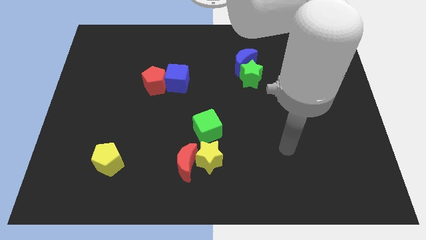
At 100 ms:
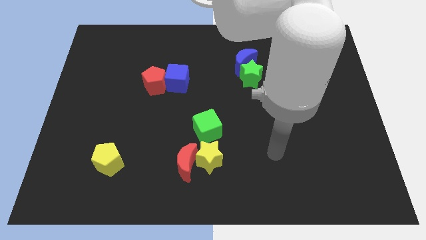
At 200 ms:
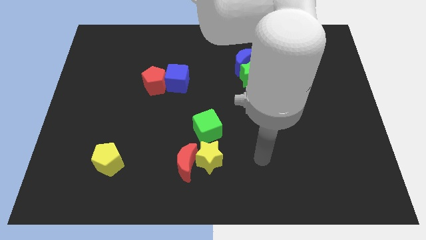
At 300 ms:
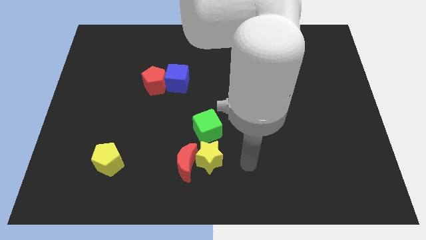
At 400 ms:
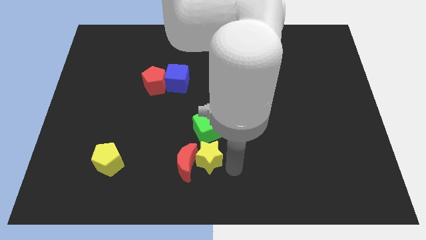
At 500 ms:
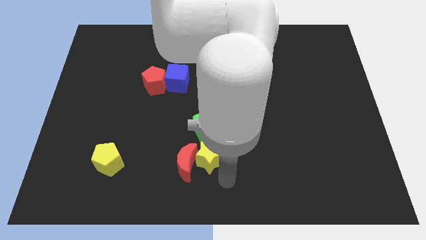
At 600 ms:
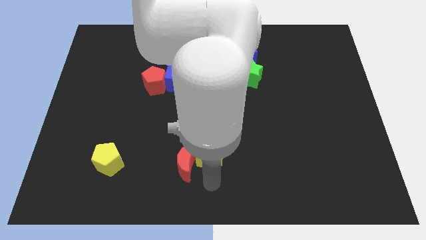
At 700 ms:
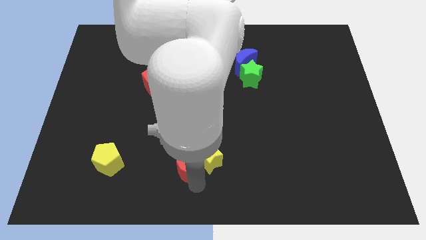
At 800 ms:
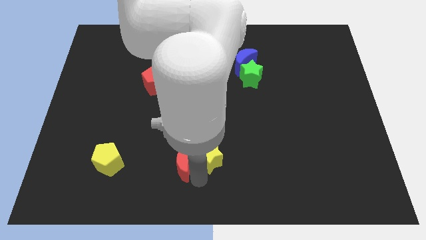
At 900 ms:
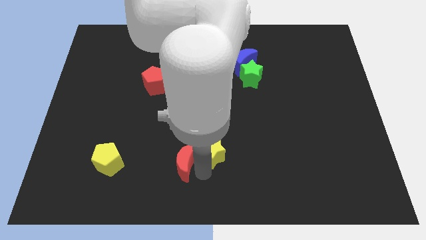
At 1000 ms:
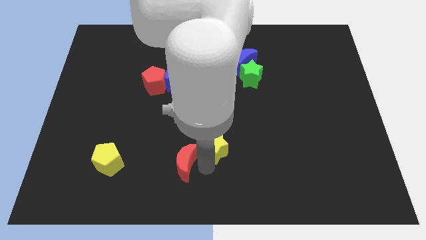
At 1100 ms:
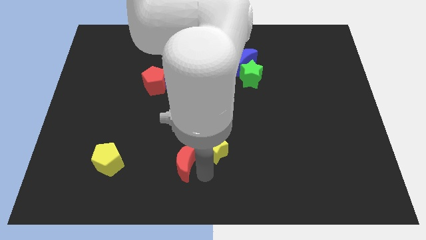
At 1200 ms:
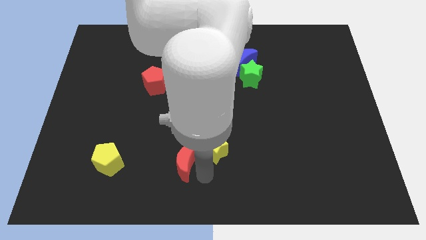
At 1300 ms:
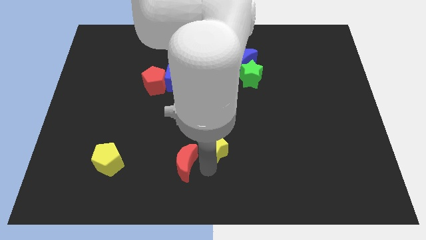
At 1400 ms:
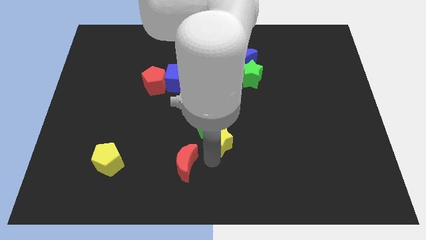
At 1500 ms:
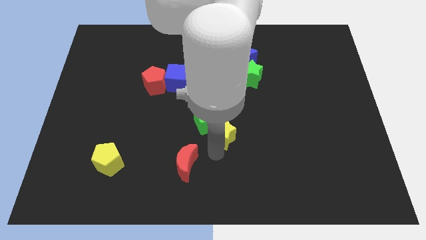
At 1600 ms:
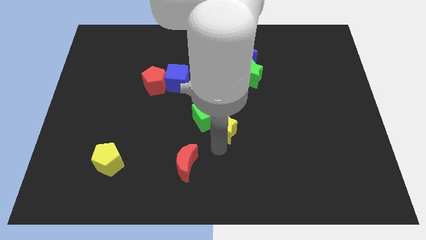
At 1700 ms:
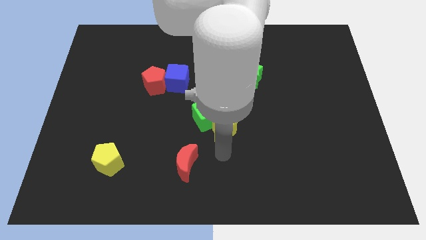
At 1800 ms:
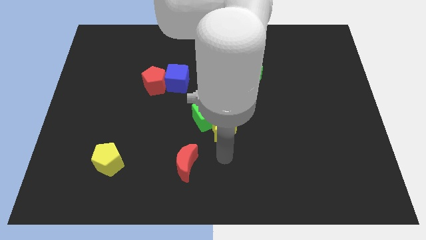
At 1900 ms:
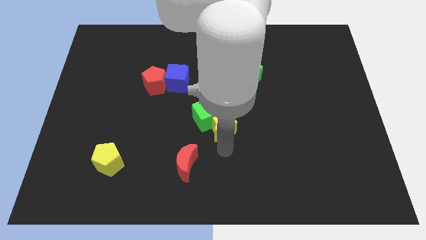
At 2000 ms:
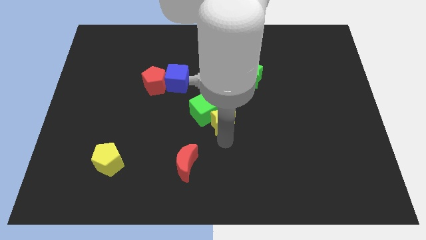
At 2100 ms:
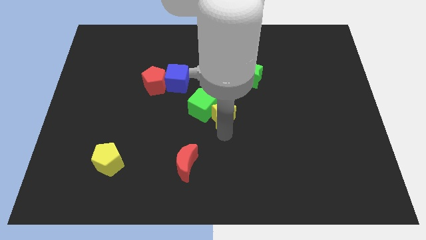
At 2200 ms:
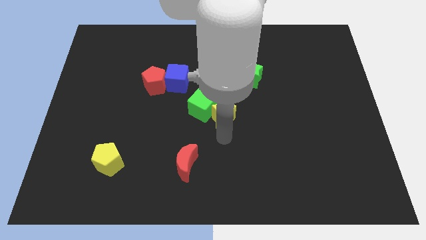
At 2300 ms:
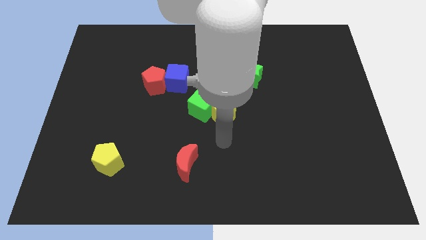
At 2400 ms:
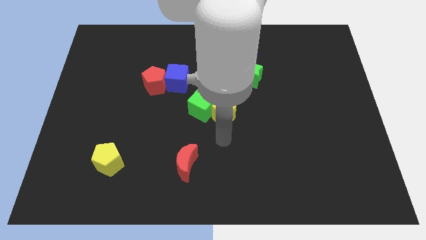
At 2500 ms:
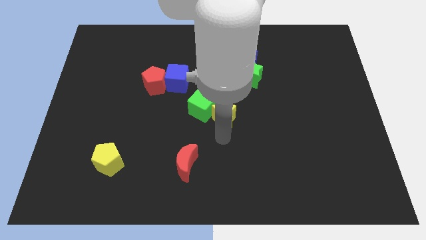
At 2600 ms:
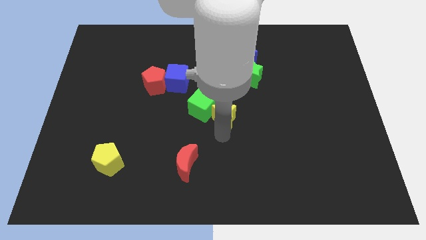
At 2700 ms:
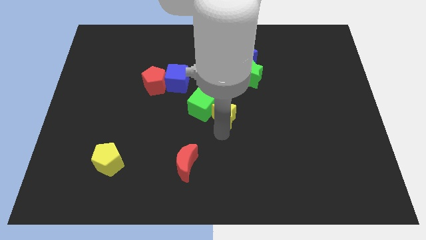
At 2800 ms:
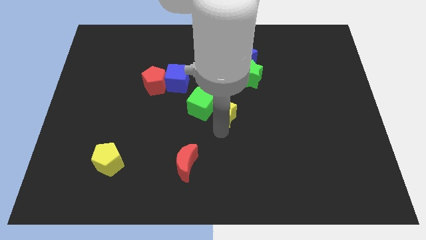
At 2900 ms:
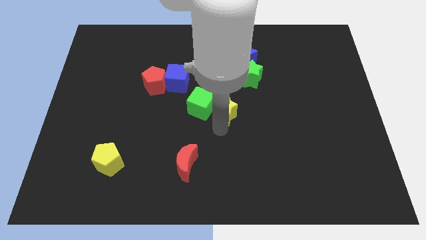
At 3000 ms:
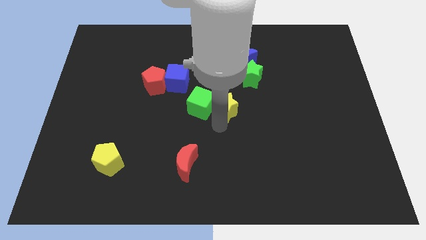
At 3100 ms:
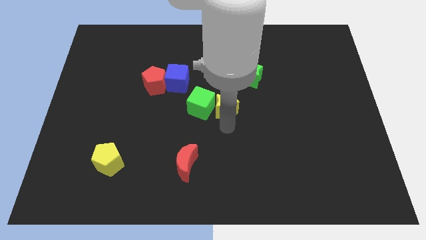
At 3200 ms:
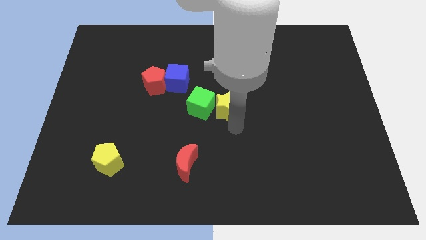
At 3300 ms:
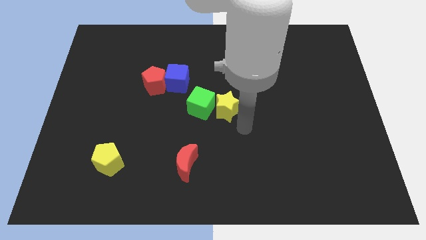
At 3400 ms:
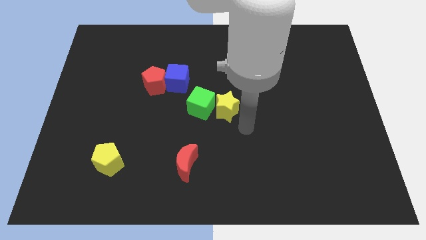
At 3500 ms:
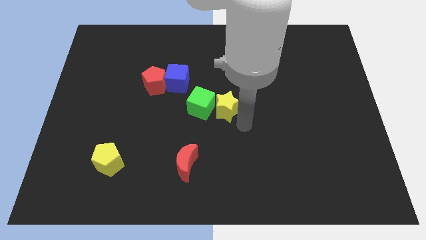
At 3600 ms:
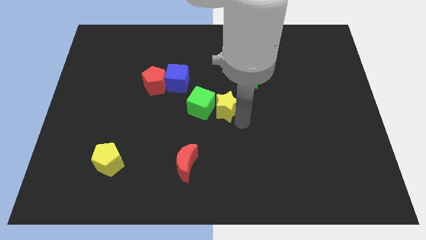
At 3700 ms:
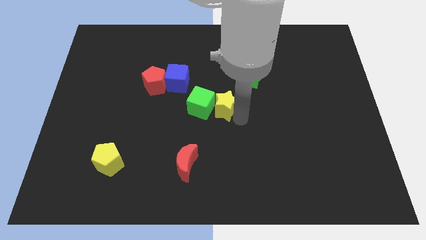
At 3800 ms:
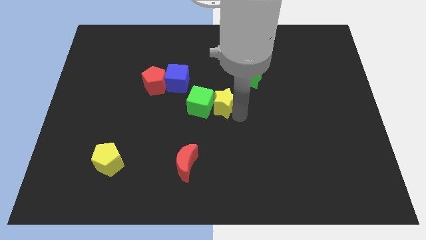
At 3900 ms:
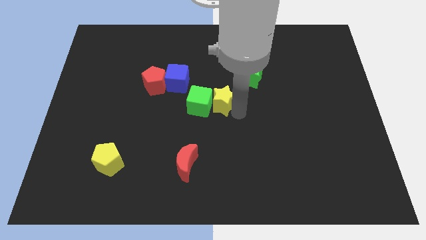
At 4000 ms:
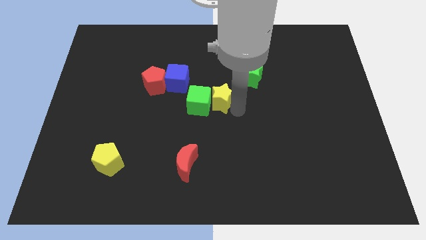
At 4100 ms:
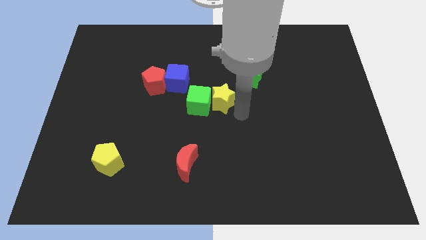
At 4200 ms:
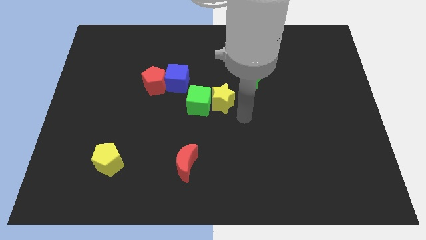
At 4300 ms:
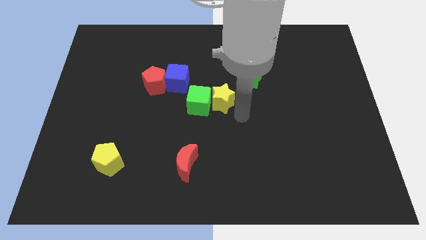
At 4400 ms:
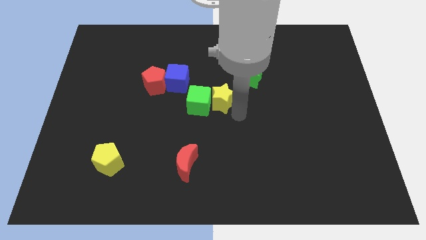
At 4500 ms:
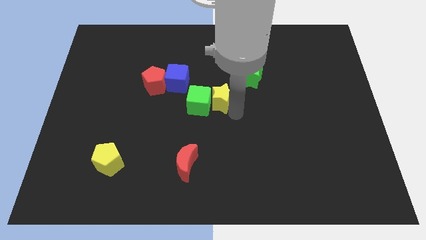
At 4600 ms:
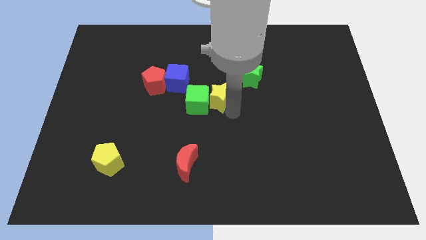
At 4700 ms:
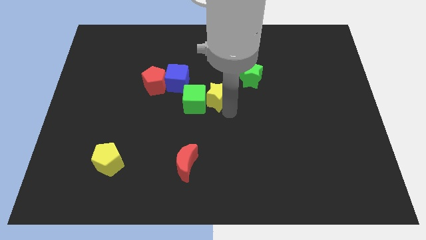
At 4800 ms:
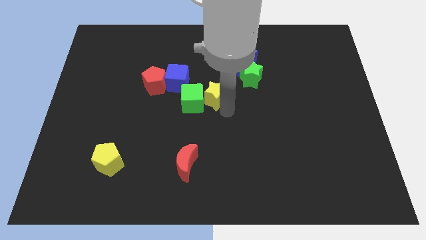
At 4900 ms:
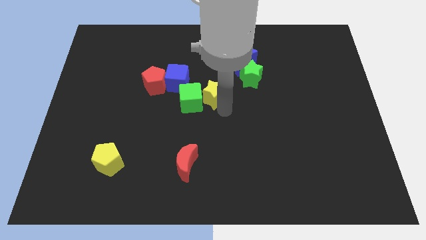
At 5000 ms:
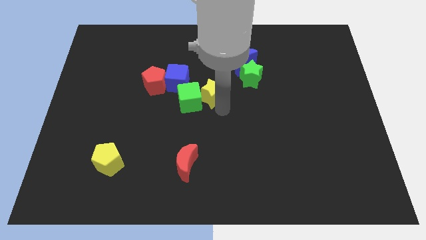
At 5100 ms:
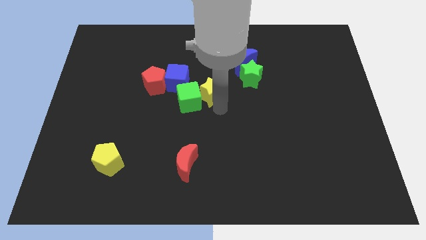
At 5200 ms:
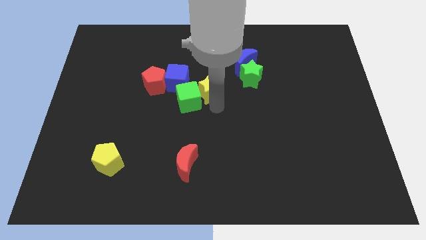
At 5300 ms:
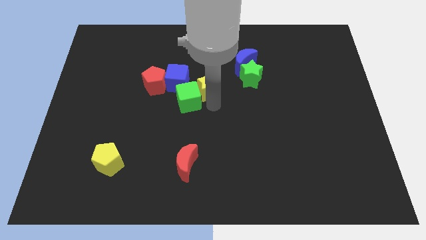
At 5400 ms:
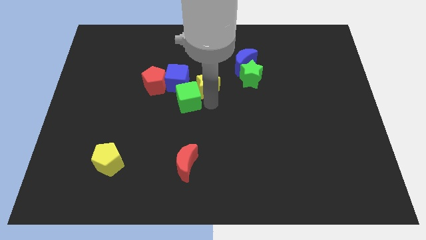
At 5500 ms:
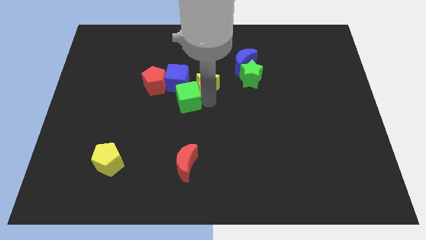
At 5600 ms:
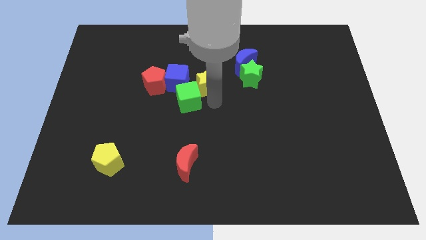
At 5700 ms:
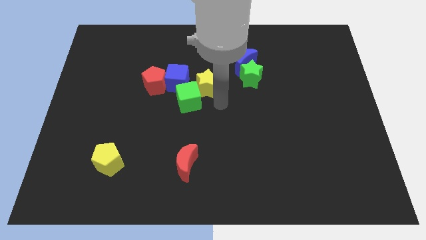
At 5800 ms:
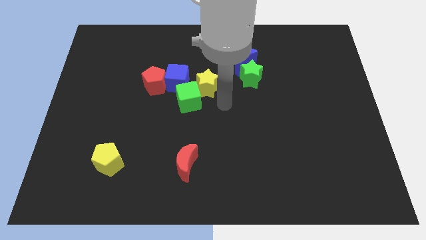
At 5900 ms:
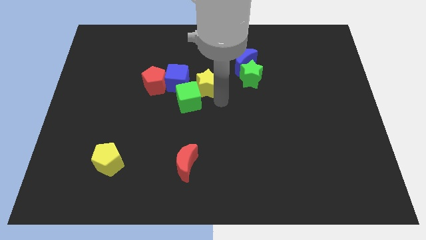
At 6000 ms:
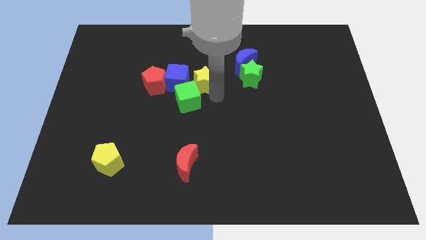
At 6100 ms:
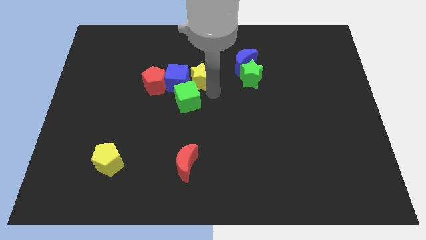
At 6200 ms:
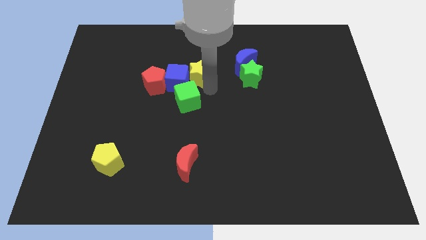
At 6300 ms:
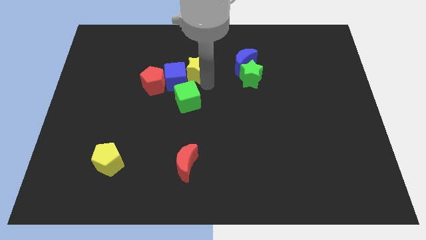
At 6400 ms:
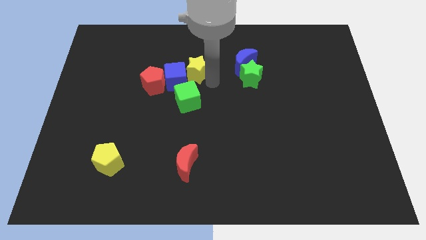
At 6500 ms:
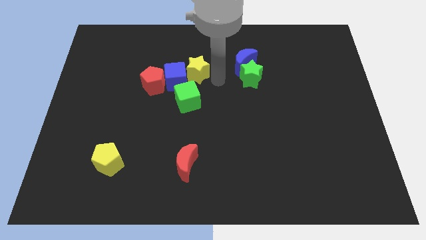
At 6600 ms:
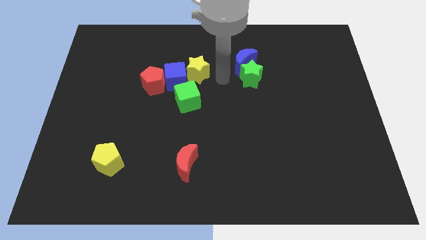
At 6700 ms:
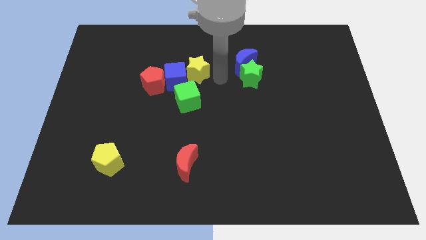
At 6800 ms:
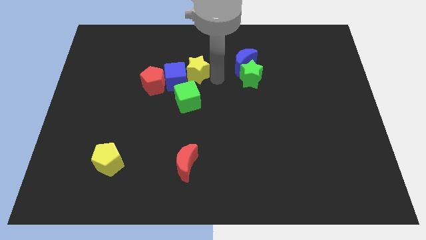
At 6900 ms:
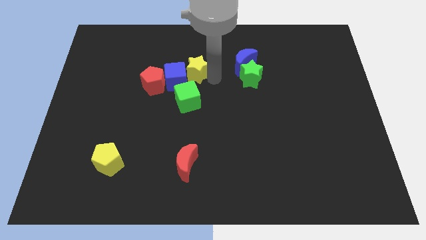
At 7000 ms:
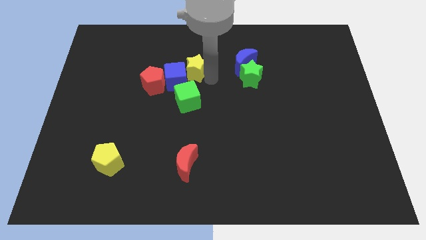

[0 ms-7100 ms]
put the yellow star to the top right of the red pentagon
